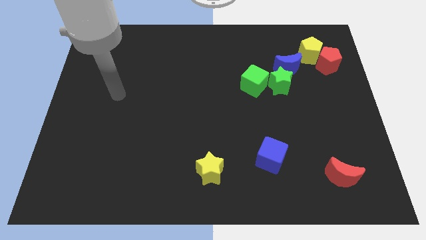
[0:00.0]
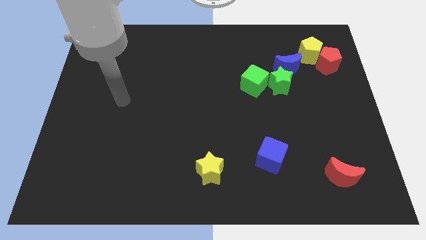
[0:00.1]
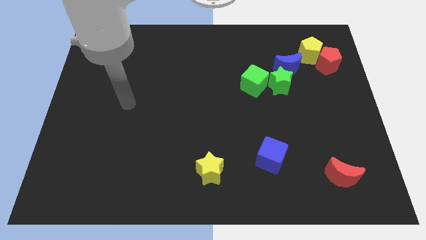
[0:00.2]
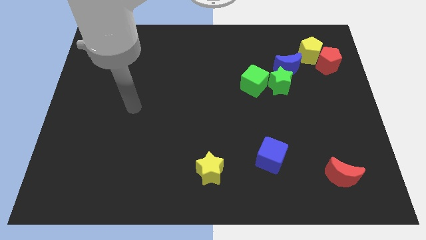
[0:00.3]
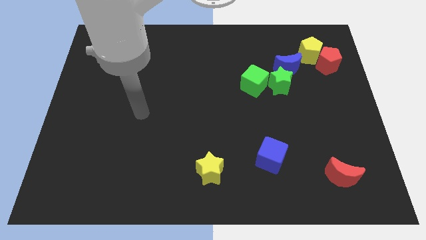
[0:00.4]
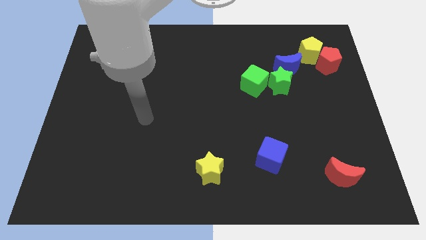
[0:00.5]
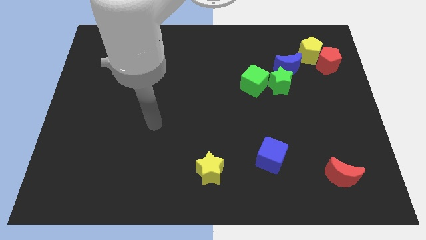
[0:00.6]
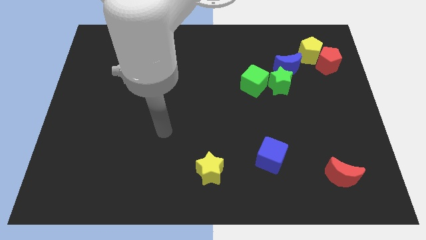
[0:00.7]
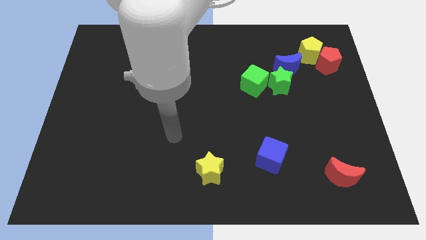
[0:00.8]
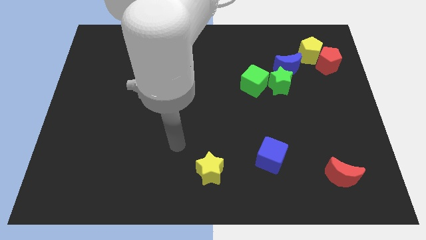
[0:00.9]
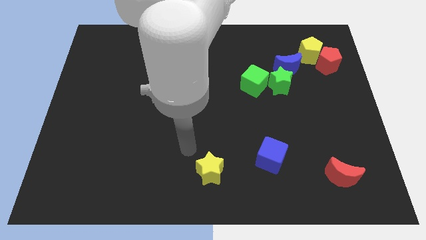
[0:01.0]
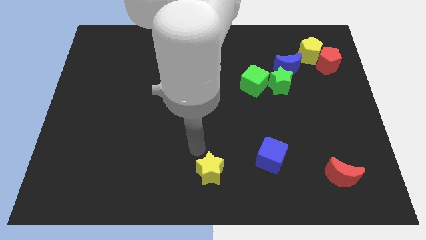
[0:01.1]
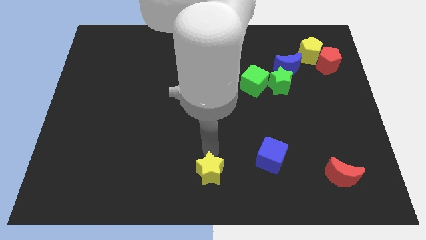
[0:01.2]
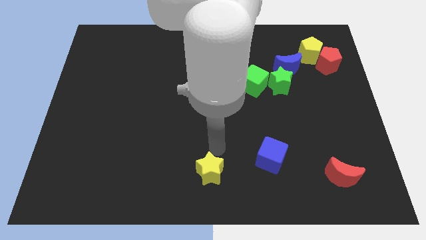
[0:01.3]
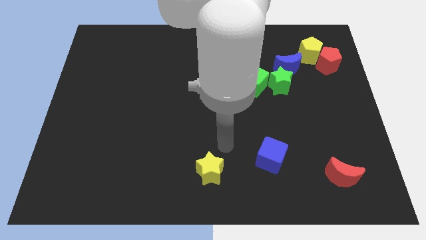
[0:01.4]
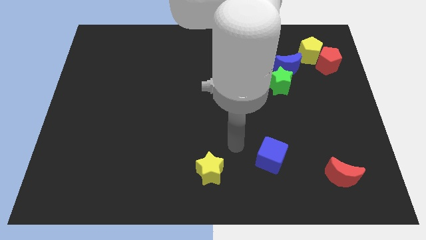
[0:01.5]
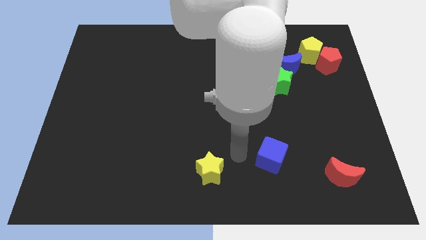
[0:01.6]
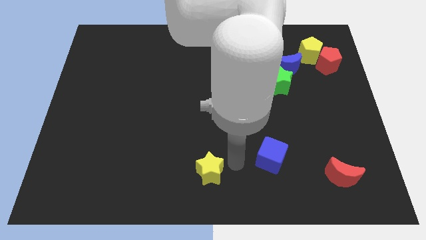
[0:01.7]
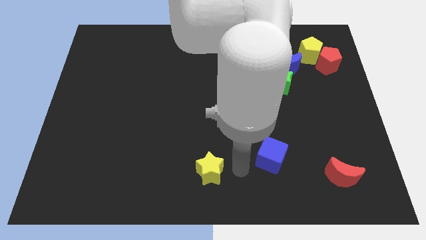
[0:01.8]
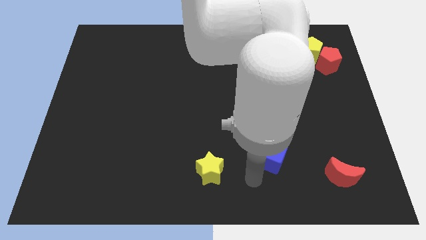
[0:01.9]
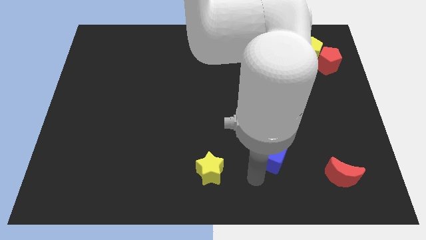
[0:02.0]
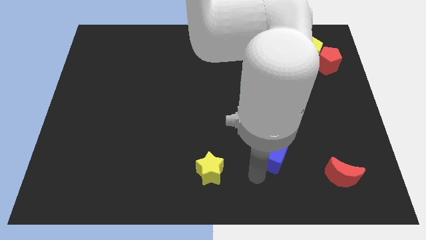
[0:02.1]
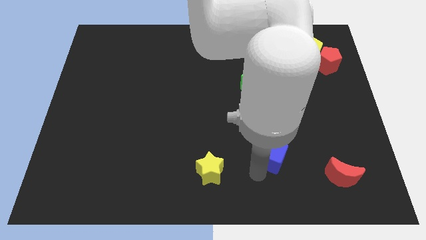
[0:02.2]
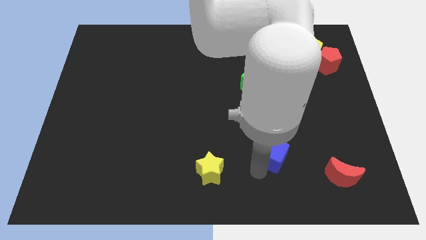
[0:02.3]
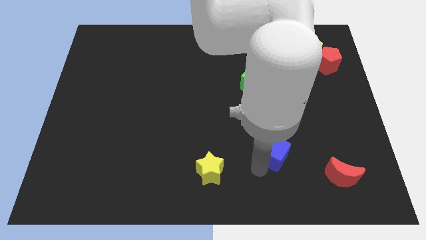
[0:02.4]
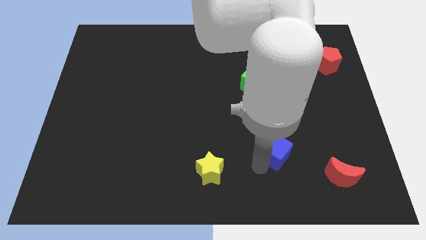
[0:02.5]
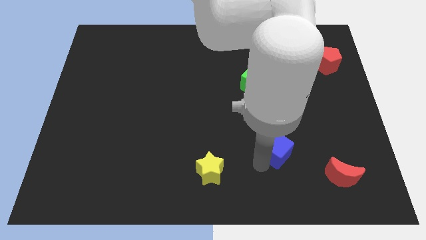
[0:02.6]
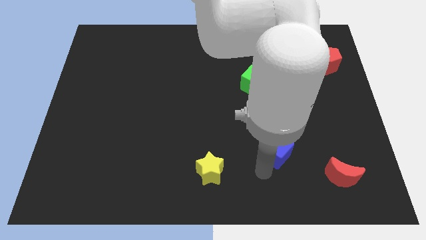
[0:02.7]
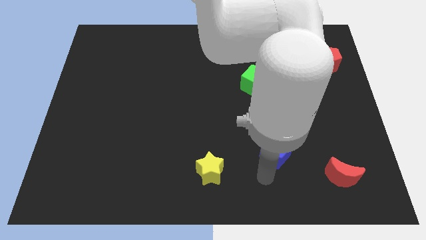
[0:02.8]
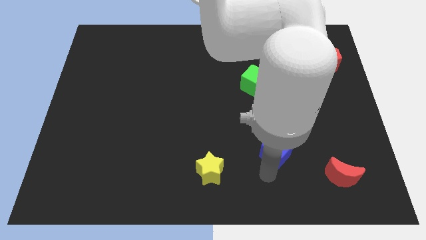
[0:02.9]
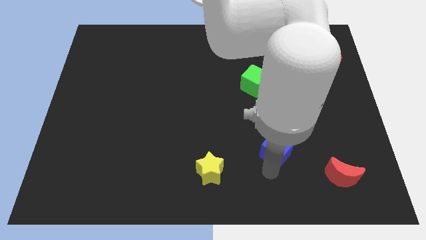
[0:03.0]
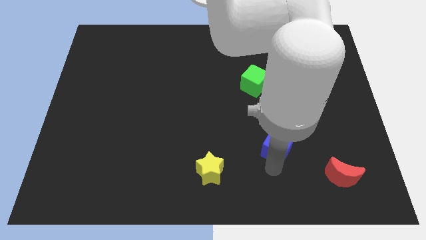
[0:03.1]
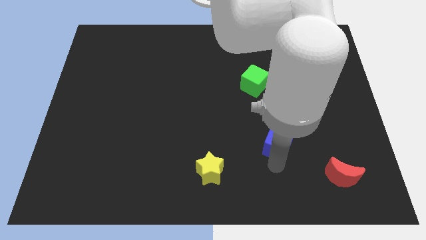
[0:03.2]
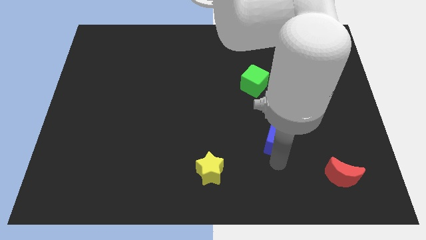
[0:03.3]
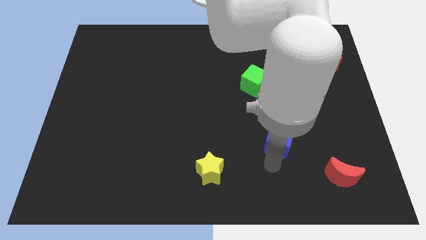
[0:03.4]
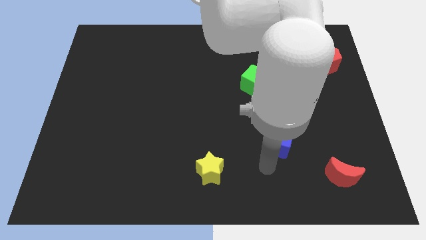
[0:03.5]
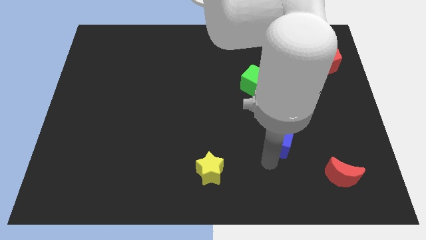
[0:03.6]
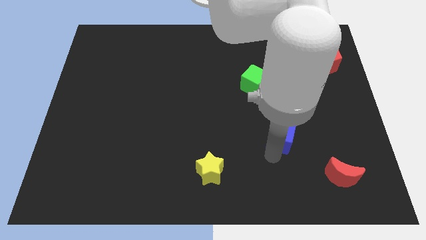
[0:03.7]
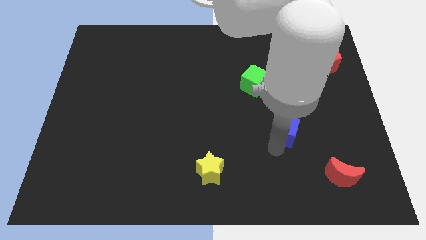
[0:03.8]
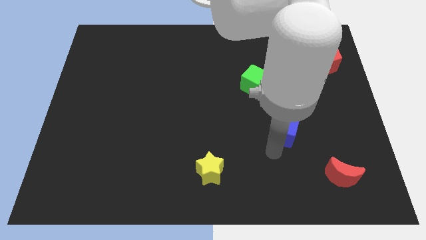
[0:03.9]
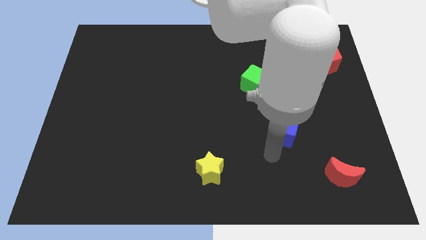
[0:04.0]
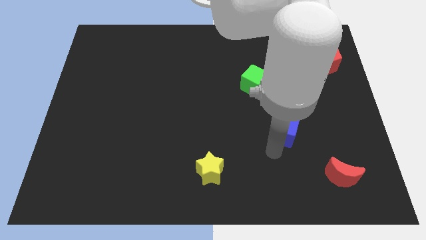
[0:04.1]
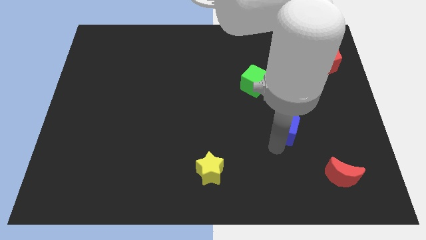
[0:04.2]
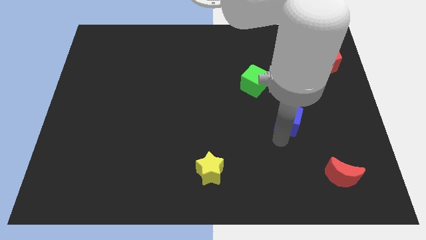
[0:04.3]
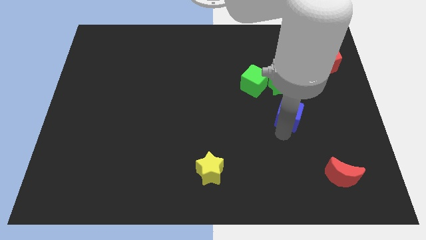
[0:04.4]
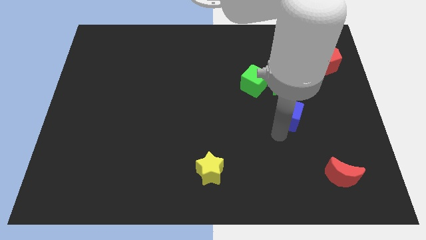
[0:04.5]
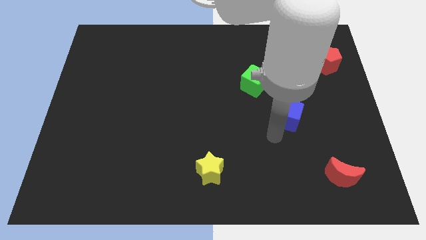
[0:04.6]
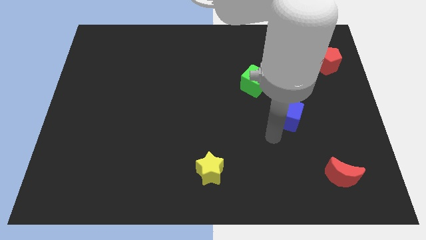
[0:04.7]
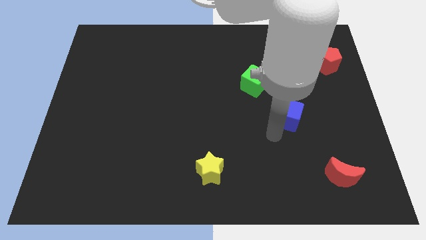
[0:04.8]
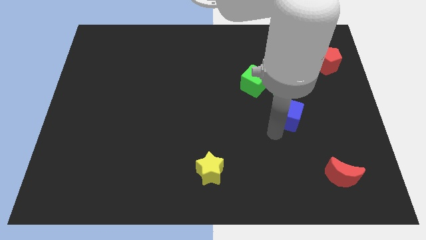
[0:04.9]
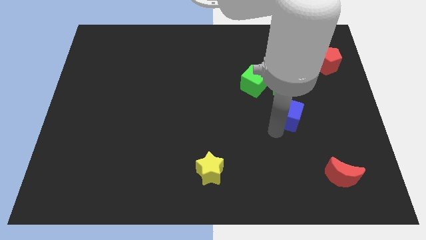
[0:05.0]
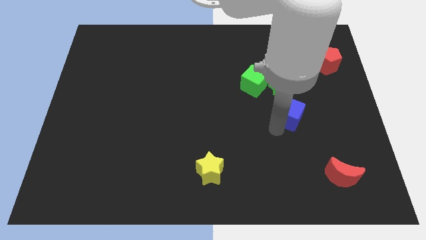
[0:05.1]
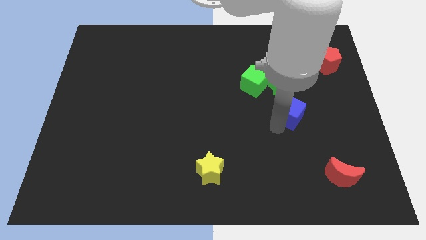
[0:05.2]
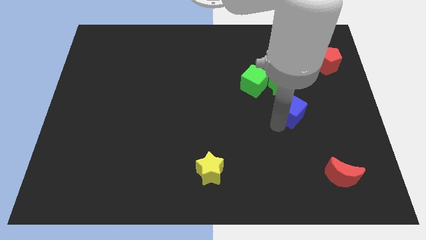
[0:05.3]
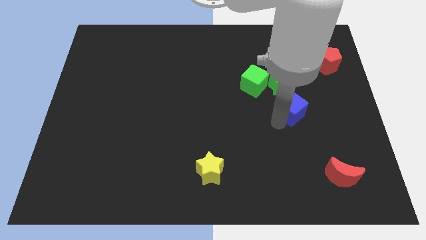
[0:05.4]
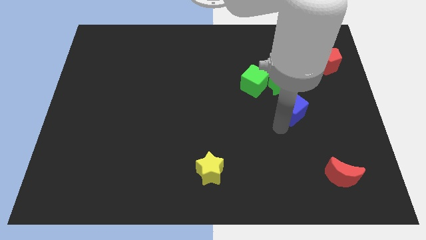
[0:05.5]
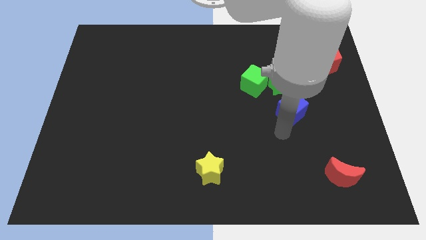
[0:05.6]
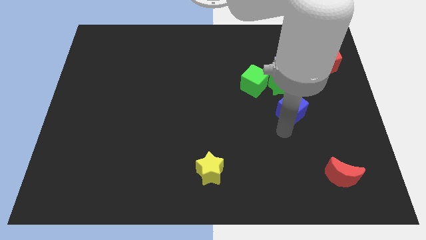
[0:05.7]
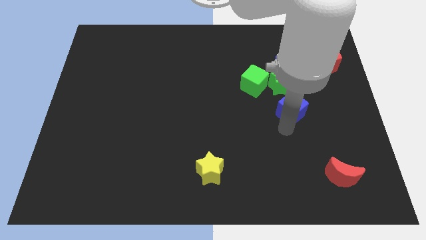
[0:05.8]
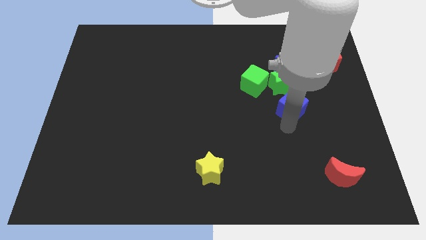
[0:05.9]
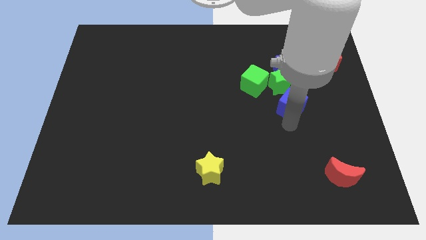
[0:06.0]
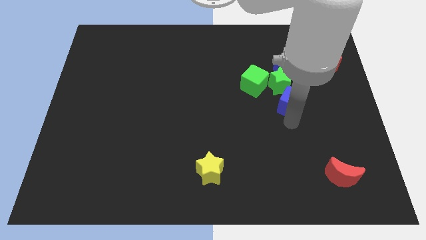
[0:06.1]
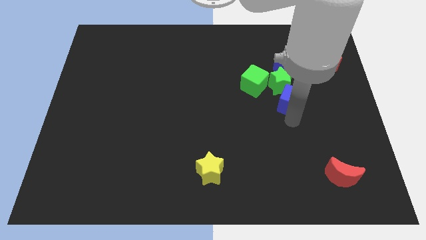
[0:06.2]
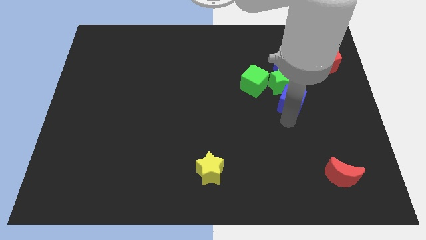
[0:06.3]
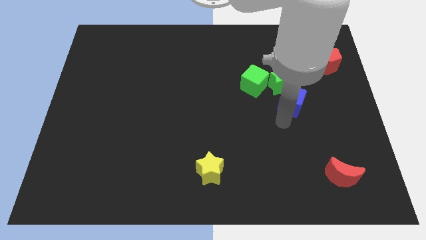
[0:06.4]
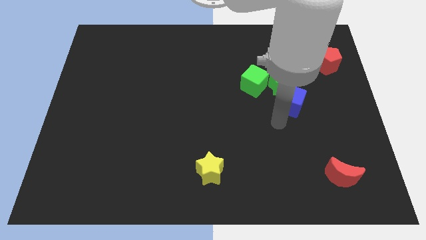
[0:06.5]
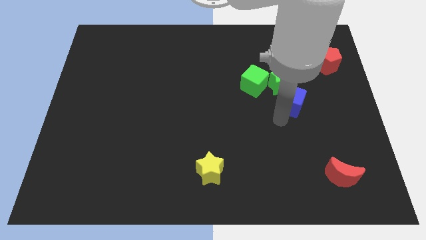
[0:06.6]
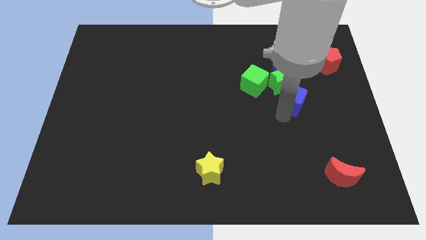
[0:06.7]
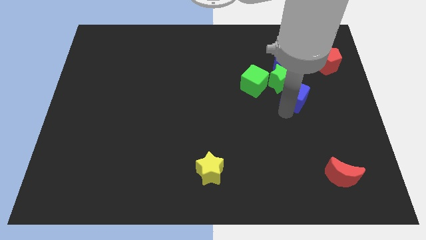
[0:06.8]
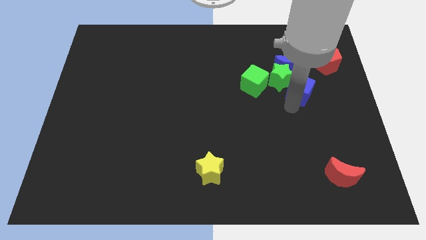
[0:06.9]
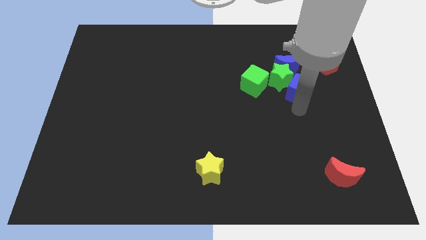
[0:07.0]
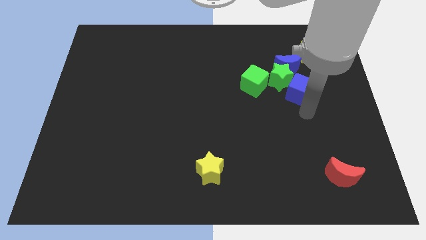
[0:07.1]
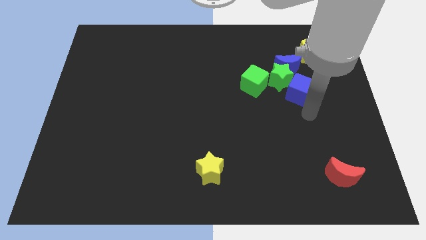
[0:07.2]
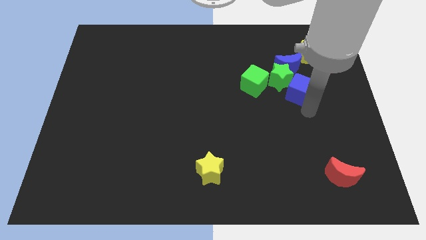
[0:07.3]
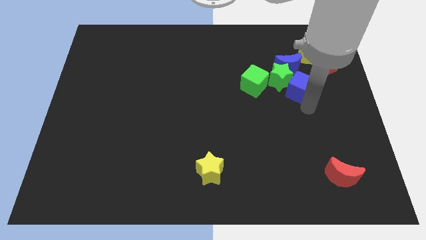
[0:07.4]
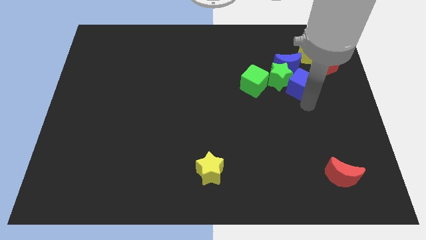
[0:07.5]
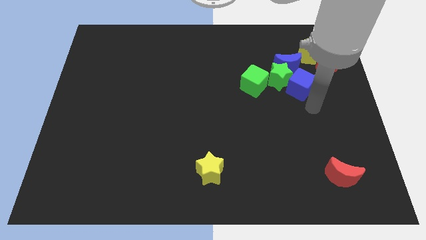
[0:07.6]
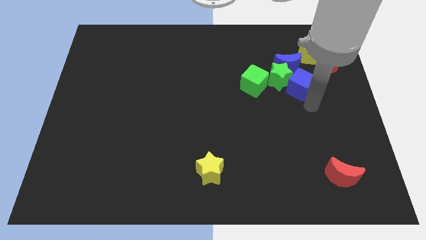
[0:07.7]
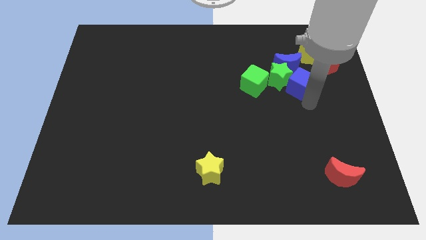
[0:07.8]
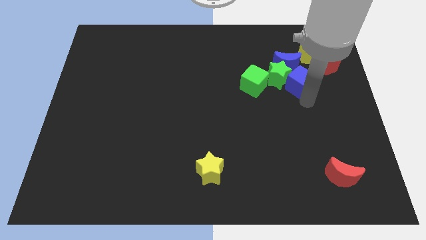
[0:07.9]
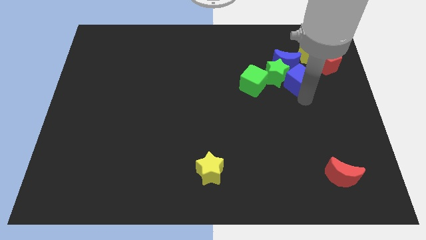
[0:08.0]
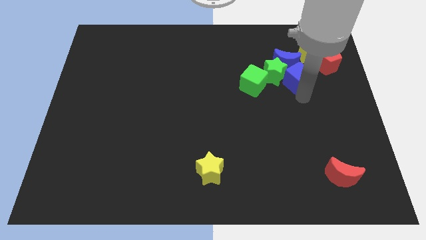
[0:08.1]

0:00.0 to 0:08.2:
move the blue cube to the blue moon
